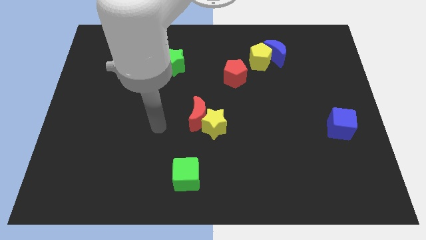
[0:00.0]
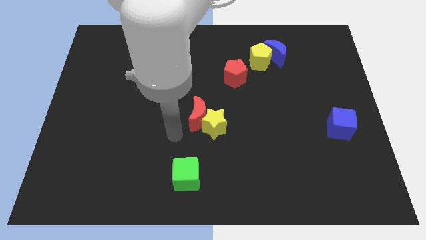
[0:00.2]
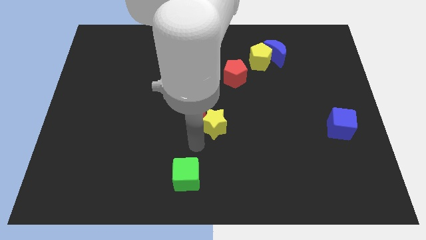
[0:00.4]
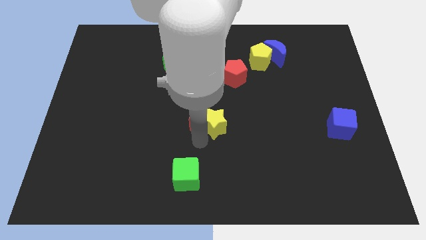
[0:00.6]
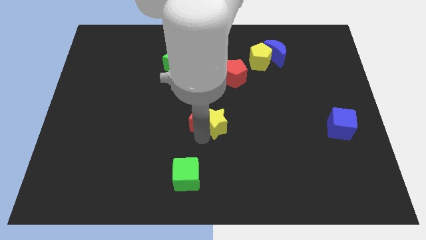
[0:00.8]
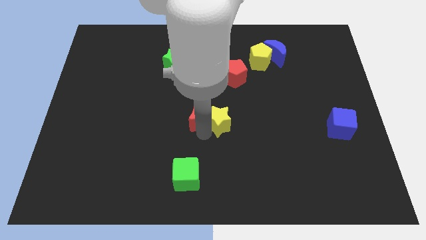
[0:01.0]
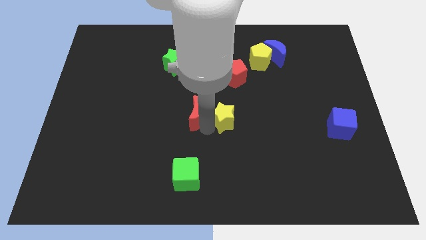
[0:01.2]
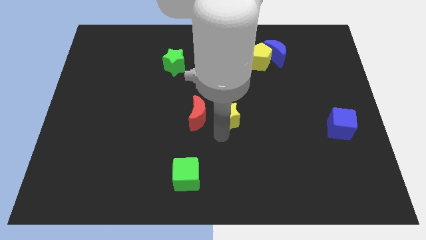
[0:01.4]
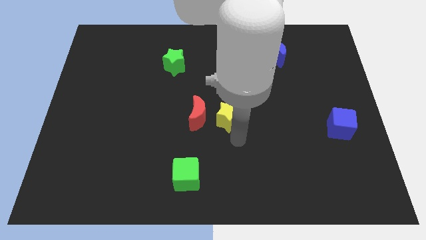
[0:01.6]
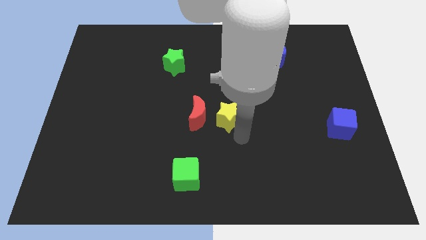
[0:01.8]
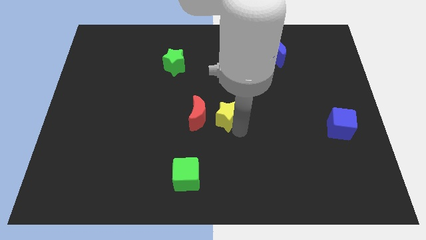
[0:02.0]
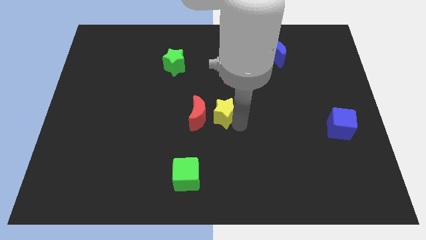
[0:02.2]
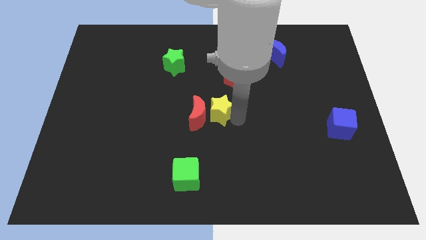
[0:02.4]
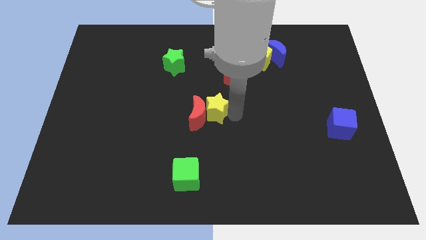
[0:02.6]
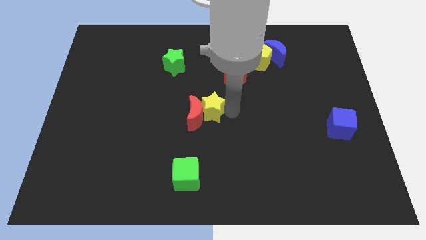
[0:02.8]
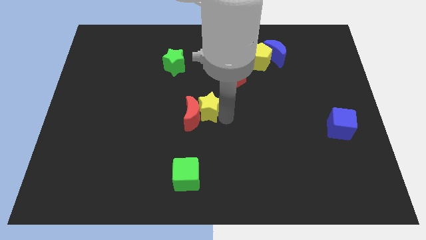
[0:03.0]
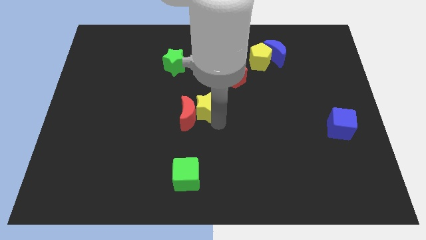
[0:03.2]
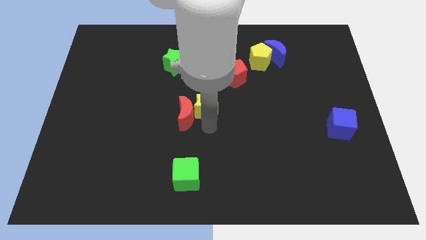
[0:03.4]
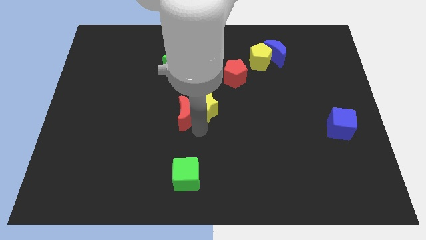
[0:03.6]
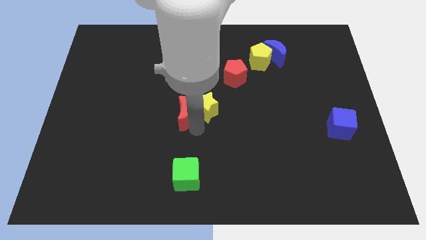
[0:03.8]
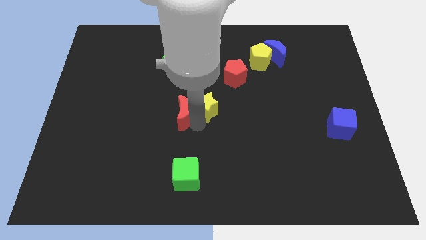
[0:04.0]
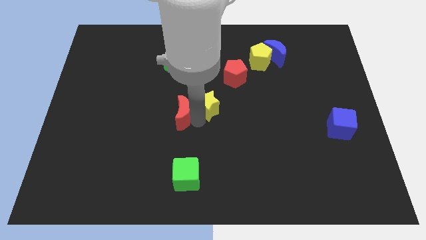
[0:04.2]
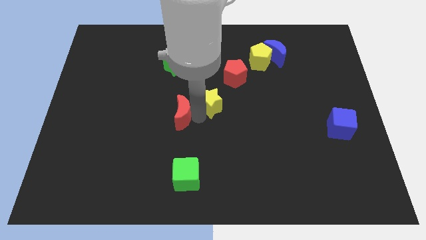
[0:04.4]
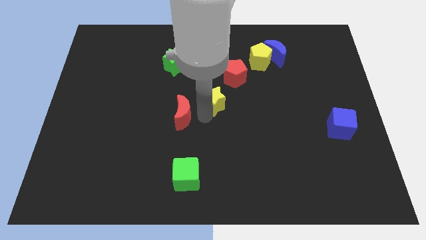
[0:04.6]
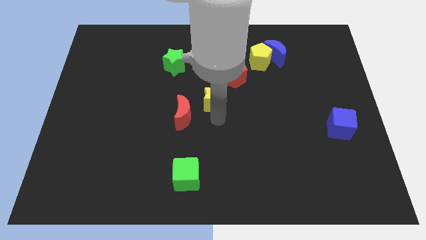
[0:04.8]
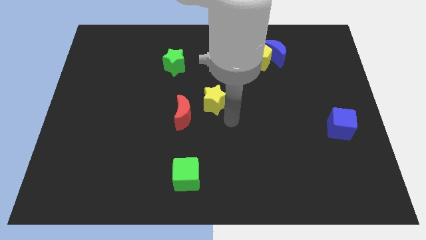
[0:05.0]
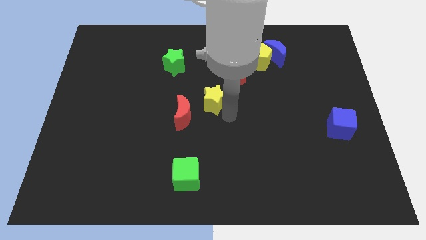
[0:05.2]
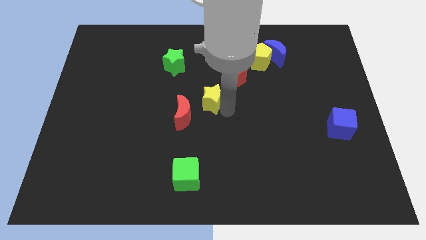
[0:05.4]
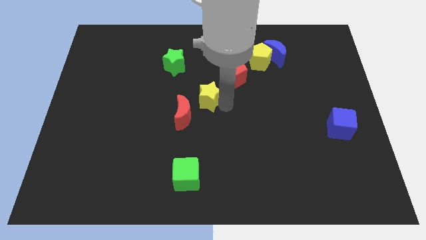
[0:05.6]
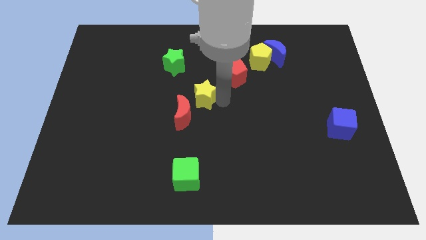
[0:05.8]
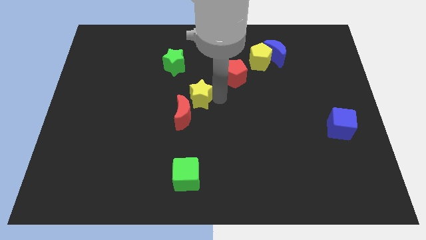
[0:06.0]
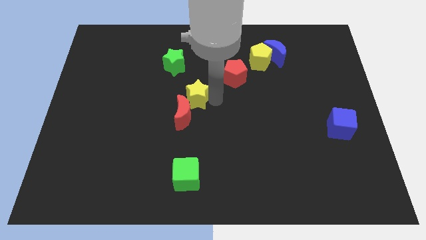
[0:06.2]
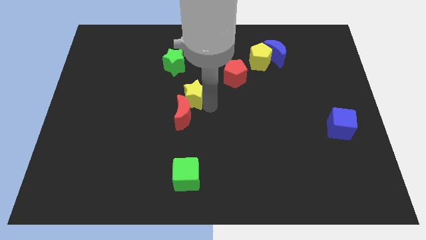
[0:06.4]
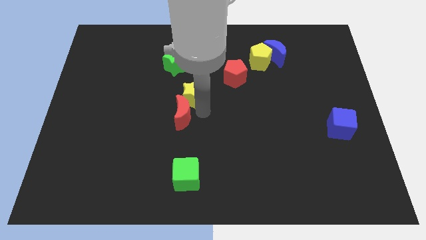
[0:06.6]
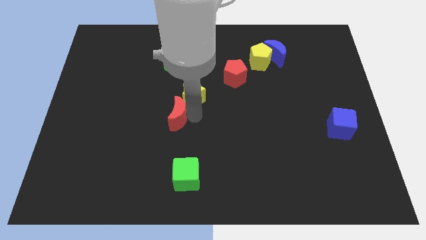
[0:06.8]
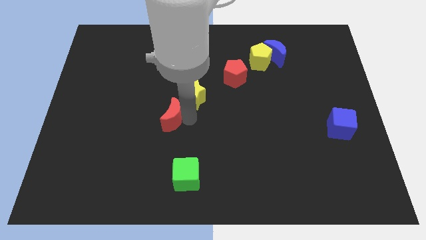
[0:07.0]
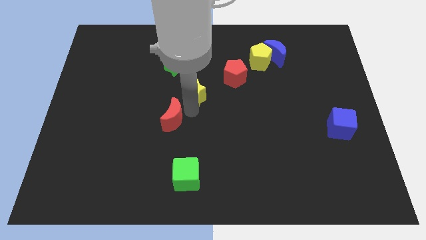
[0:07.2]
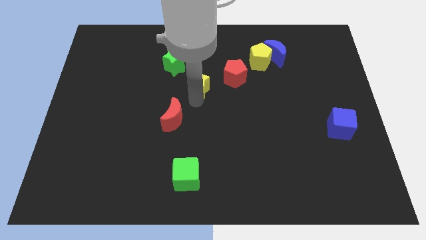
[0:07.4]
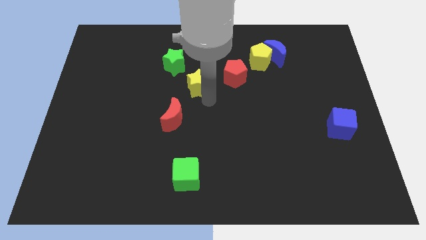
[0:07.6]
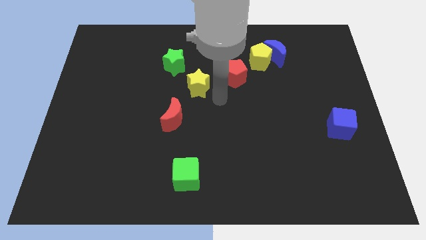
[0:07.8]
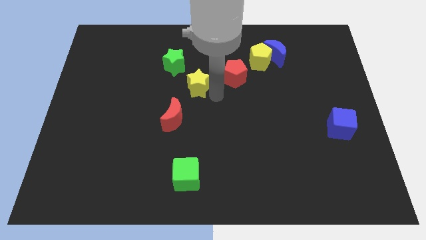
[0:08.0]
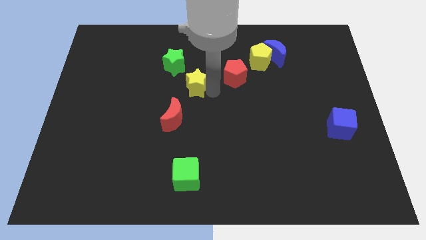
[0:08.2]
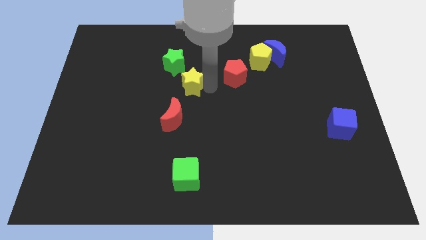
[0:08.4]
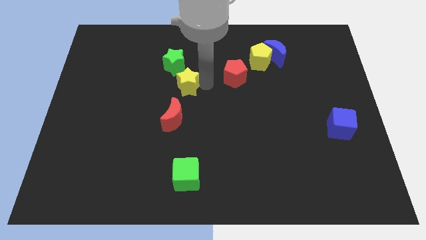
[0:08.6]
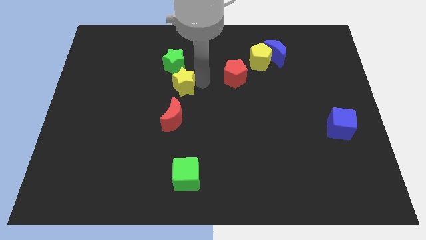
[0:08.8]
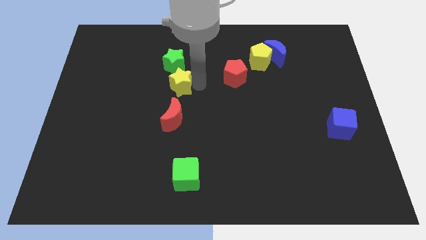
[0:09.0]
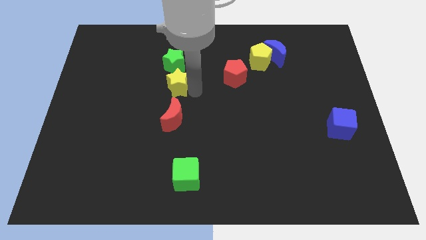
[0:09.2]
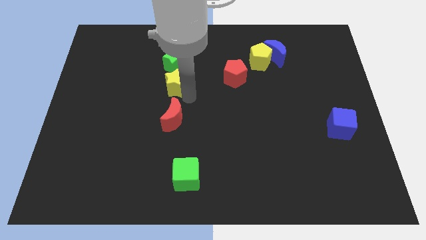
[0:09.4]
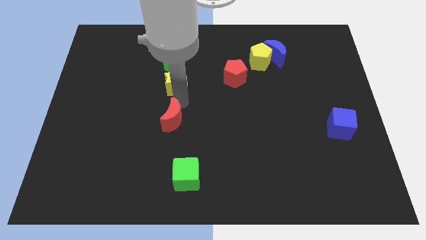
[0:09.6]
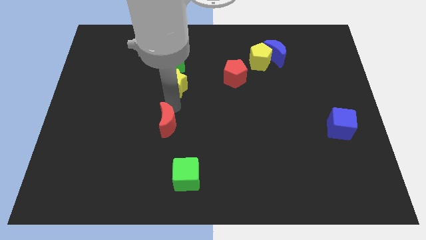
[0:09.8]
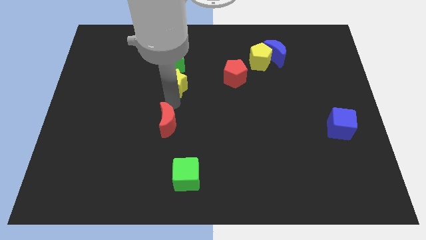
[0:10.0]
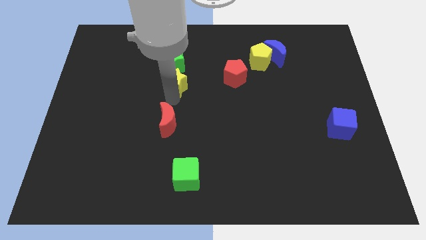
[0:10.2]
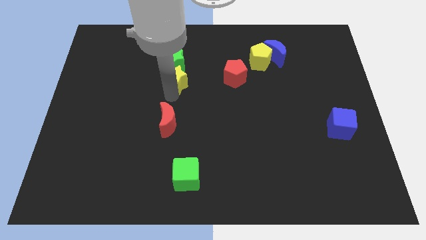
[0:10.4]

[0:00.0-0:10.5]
move the yellow star towards the green star

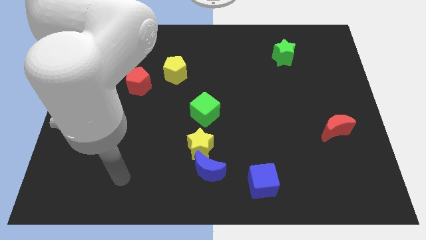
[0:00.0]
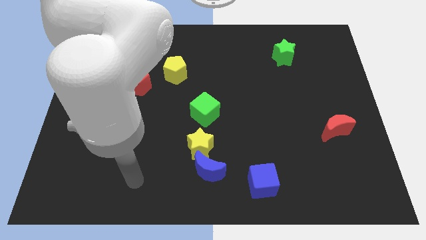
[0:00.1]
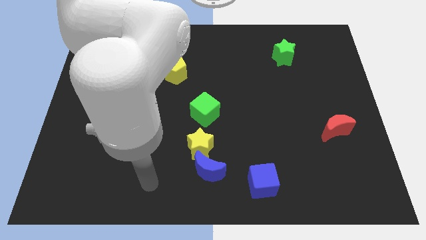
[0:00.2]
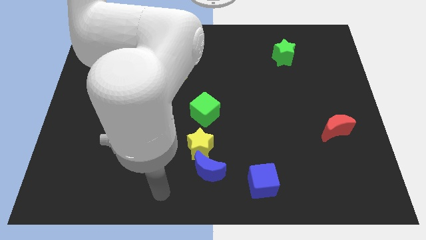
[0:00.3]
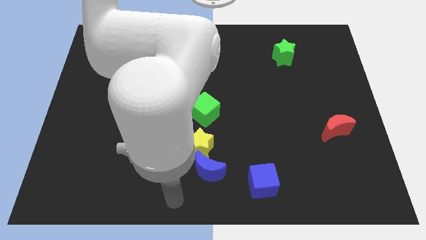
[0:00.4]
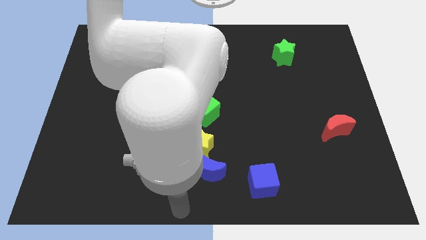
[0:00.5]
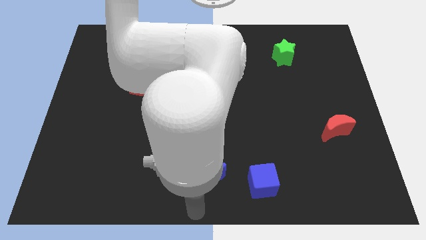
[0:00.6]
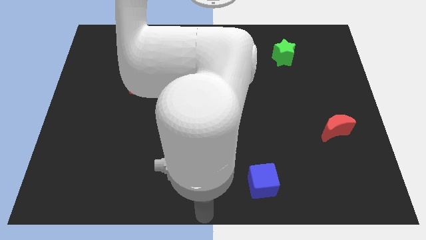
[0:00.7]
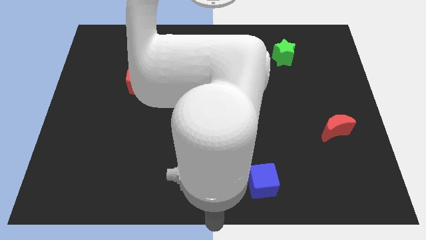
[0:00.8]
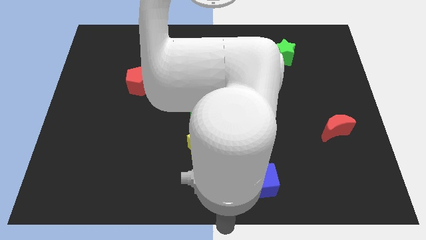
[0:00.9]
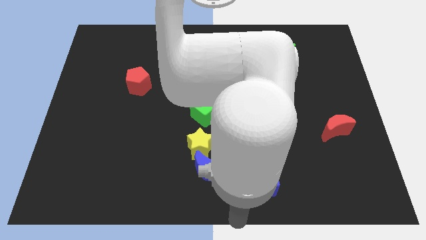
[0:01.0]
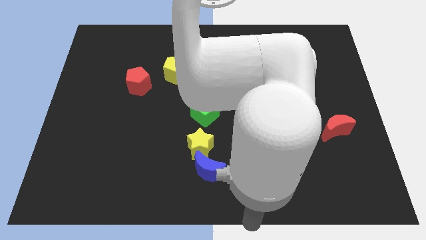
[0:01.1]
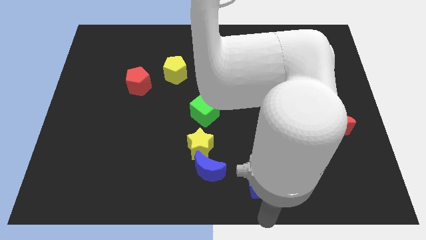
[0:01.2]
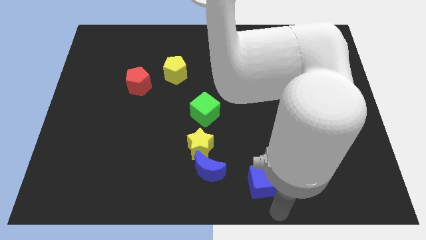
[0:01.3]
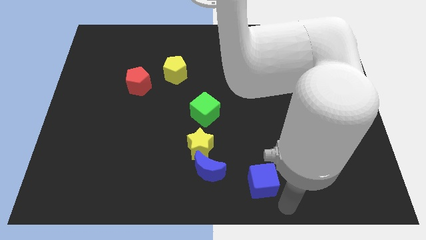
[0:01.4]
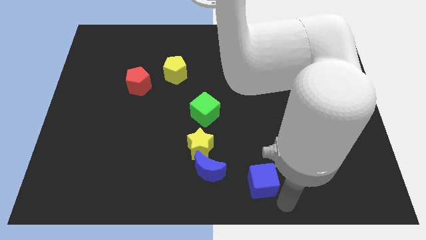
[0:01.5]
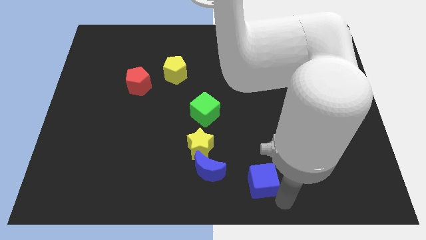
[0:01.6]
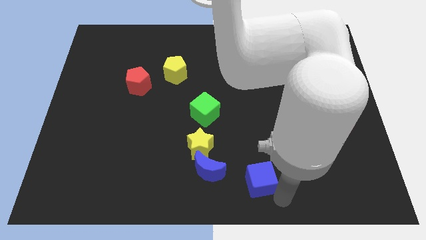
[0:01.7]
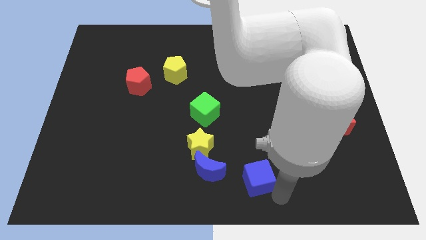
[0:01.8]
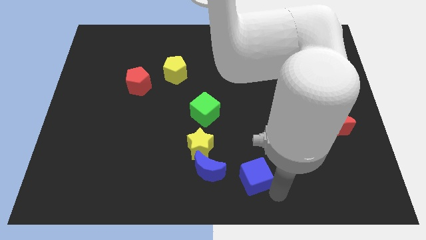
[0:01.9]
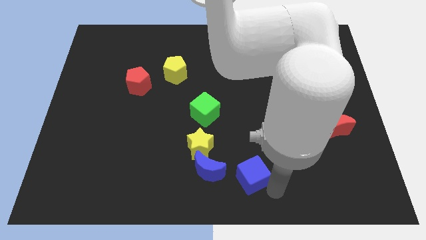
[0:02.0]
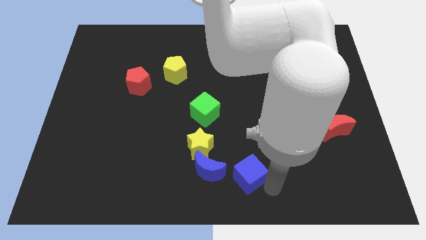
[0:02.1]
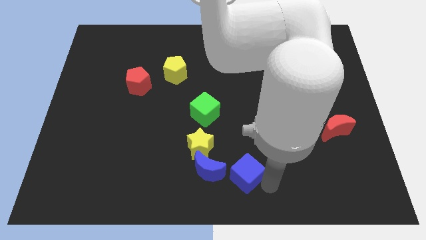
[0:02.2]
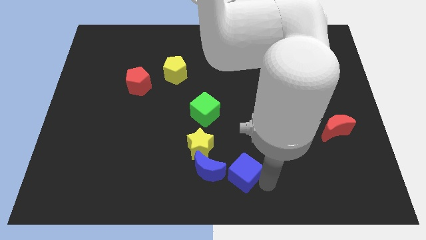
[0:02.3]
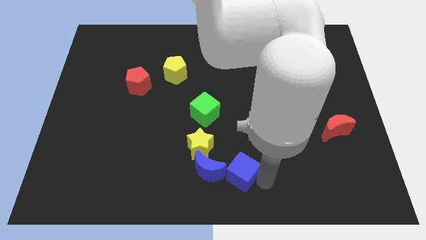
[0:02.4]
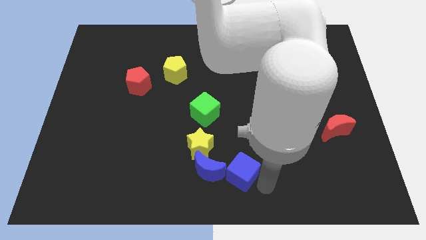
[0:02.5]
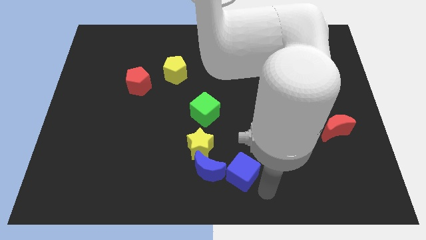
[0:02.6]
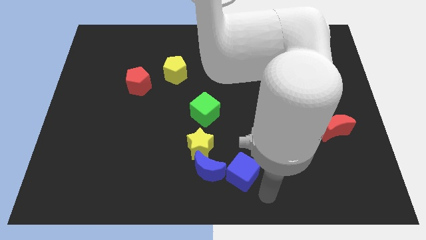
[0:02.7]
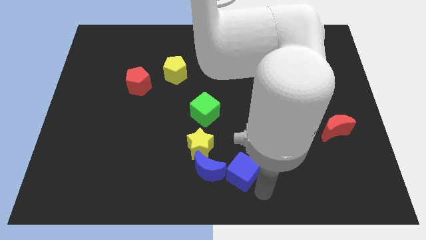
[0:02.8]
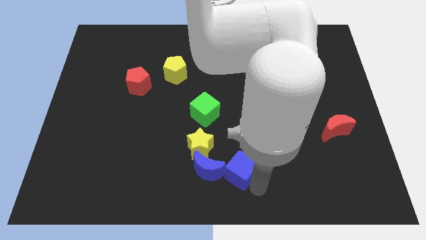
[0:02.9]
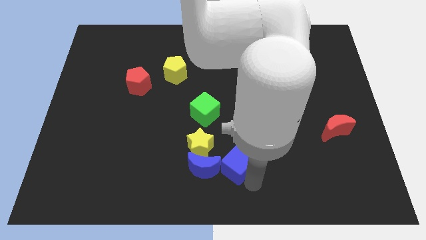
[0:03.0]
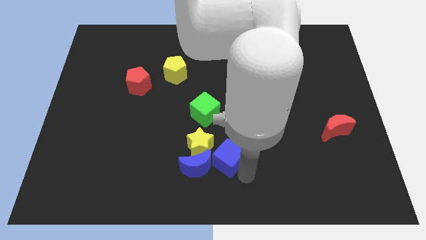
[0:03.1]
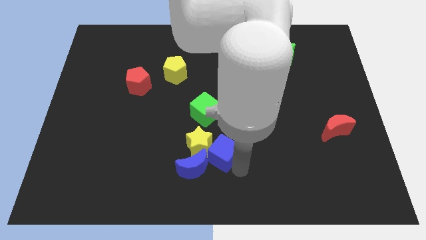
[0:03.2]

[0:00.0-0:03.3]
put the blue cube next to the yellow star
